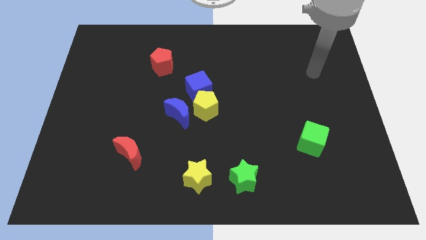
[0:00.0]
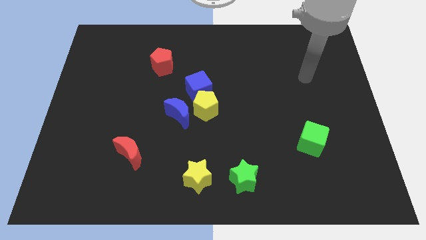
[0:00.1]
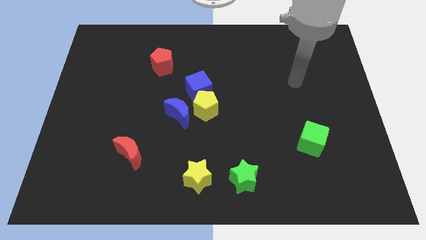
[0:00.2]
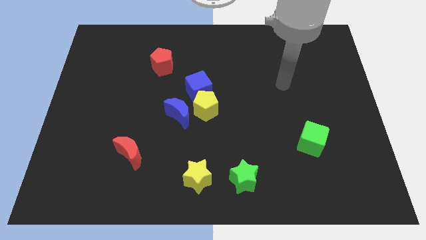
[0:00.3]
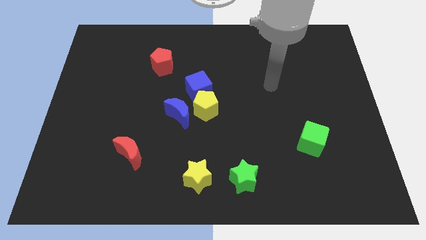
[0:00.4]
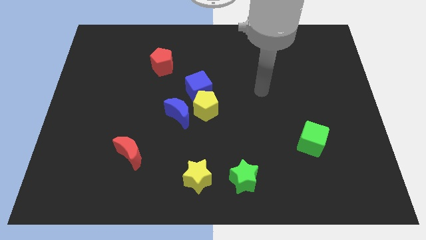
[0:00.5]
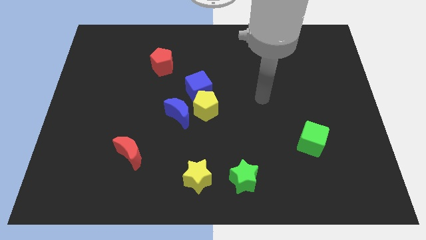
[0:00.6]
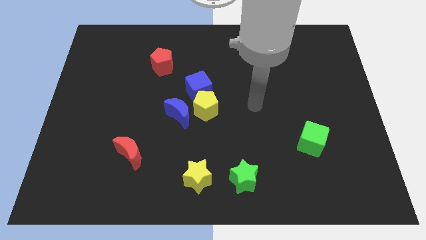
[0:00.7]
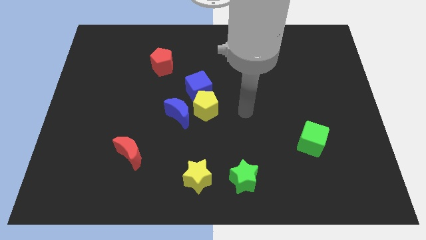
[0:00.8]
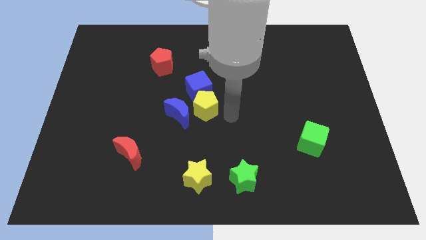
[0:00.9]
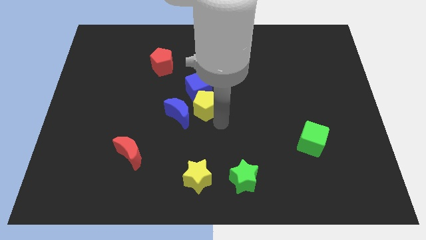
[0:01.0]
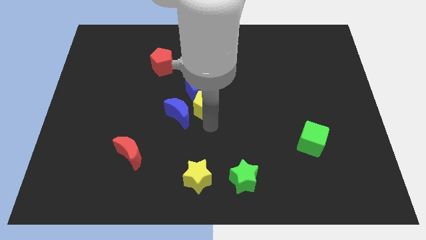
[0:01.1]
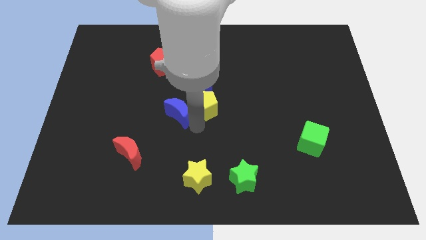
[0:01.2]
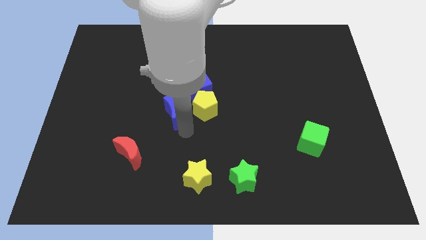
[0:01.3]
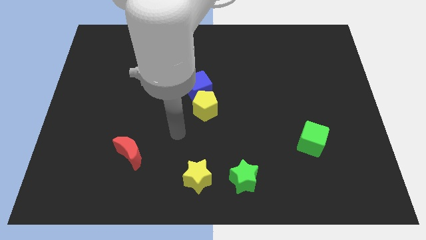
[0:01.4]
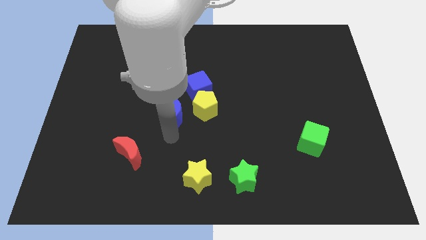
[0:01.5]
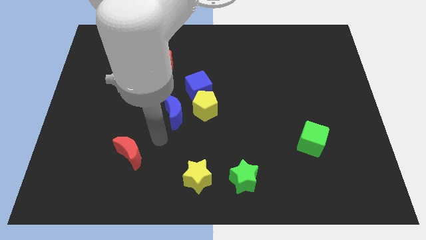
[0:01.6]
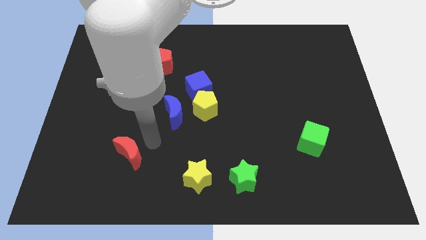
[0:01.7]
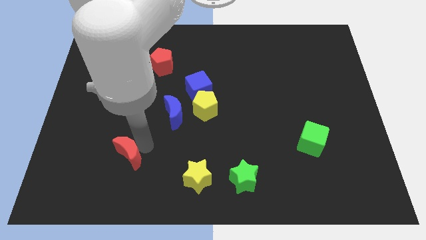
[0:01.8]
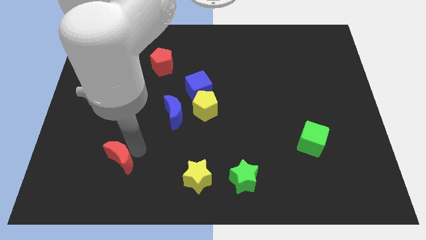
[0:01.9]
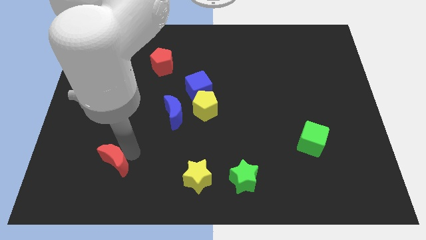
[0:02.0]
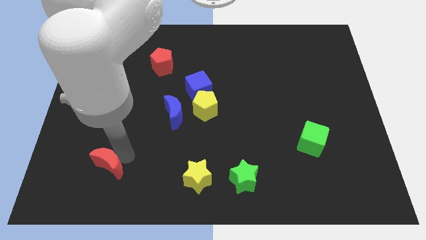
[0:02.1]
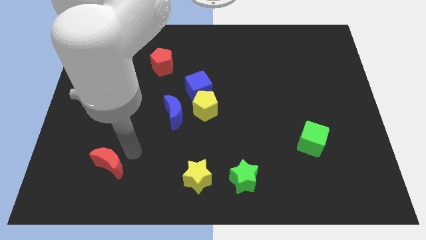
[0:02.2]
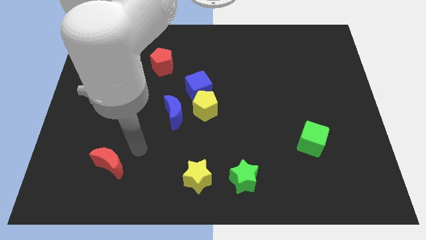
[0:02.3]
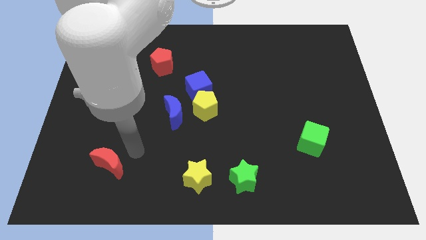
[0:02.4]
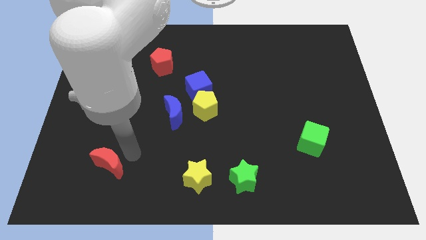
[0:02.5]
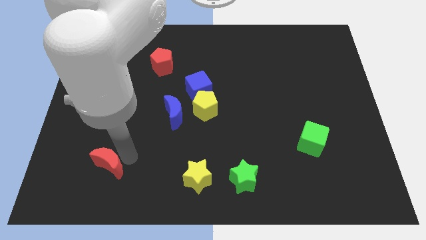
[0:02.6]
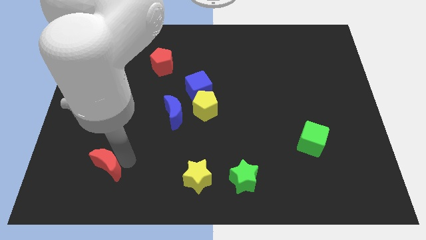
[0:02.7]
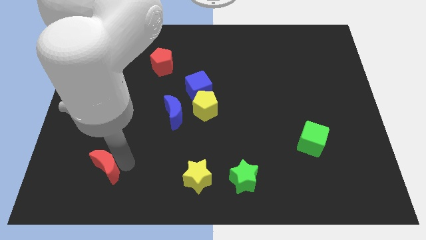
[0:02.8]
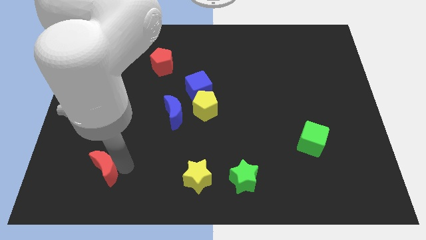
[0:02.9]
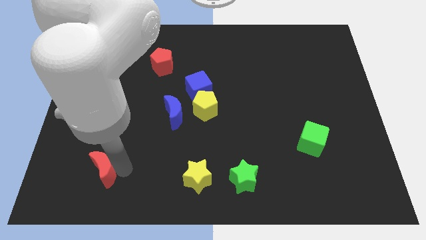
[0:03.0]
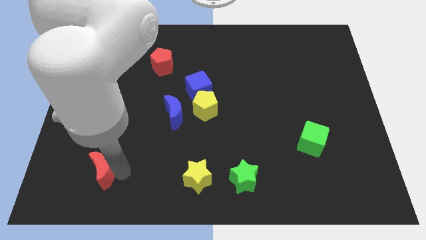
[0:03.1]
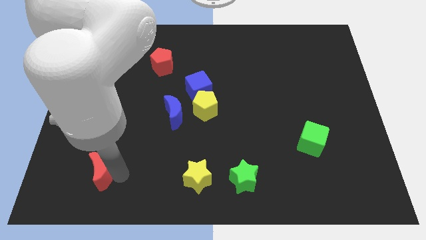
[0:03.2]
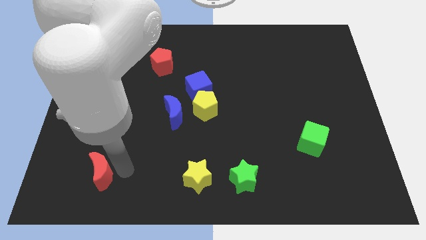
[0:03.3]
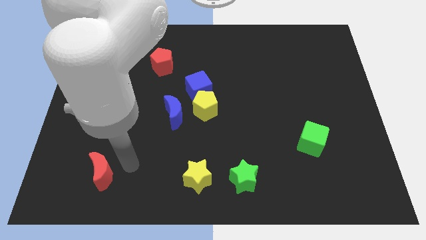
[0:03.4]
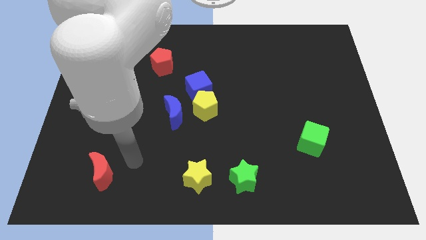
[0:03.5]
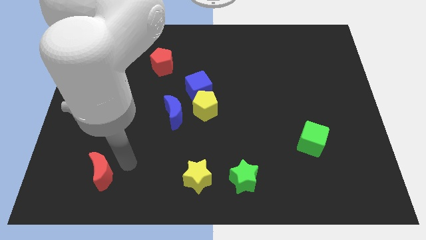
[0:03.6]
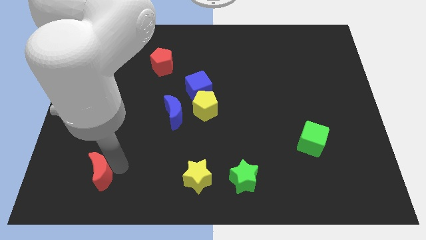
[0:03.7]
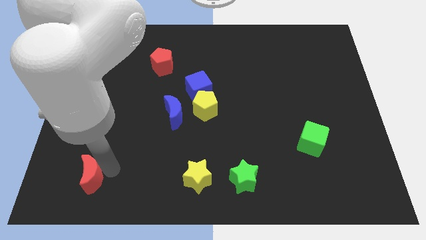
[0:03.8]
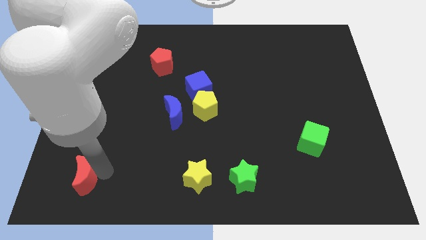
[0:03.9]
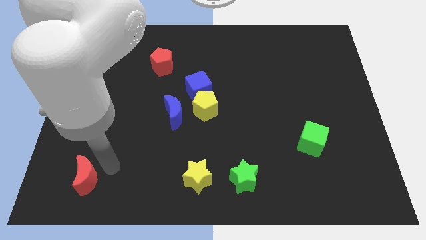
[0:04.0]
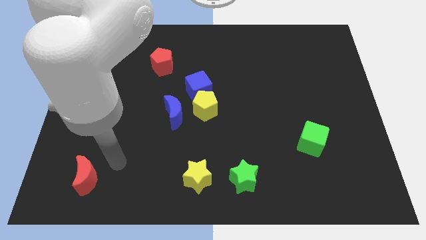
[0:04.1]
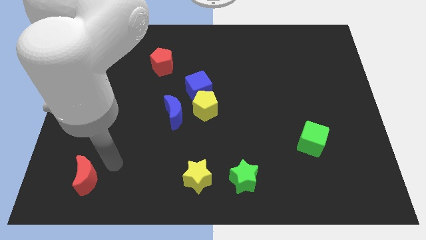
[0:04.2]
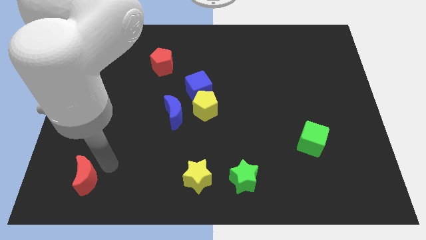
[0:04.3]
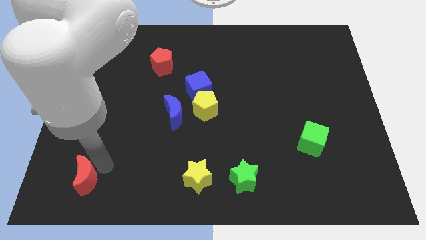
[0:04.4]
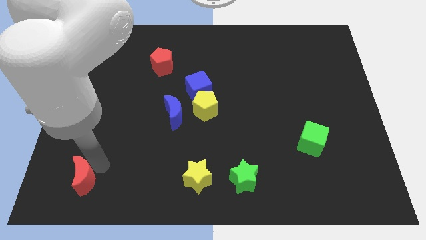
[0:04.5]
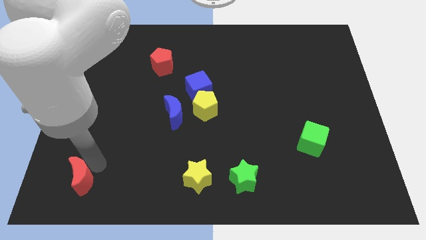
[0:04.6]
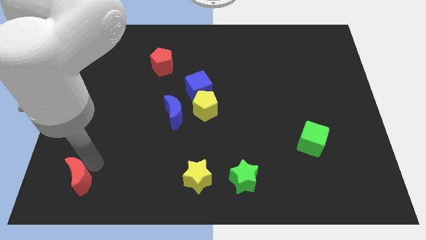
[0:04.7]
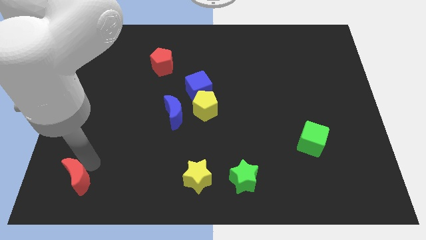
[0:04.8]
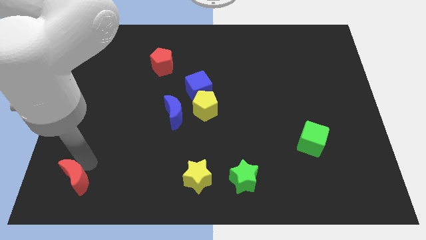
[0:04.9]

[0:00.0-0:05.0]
slide the red moon to the bottom left

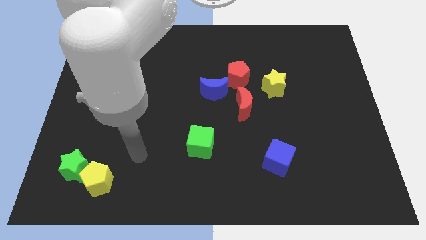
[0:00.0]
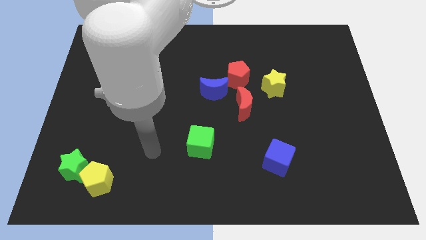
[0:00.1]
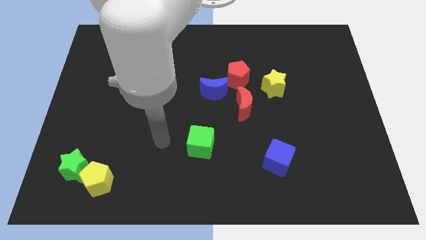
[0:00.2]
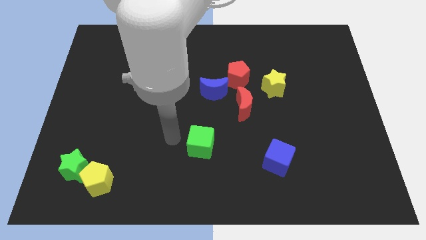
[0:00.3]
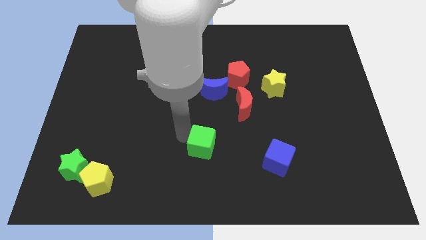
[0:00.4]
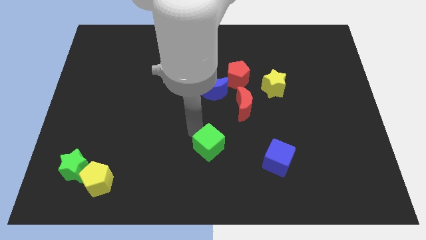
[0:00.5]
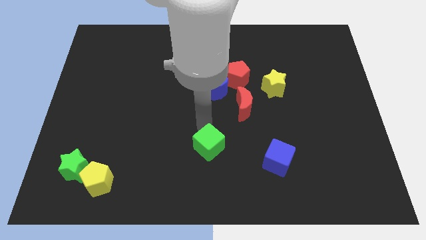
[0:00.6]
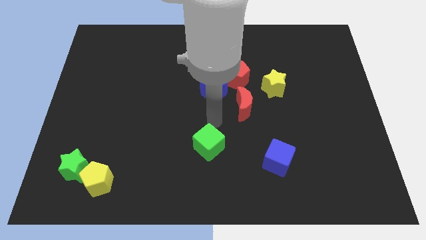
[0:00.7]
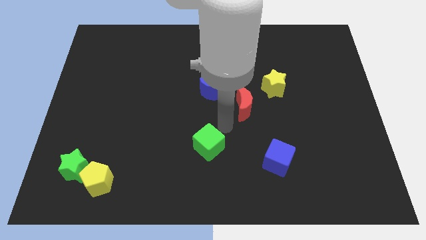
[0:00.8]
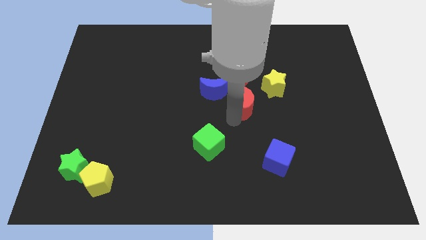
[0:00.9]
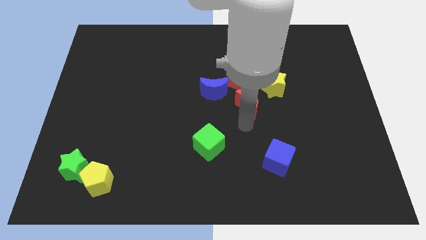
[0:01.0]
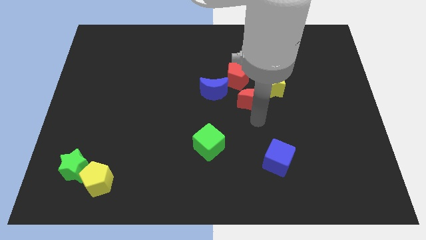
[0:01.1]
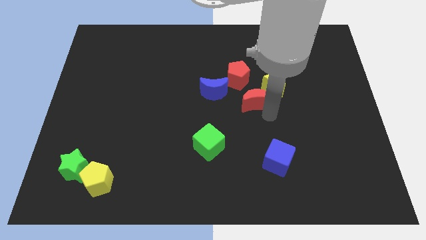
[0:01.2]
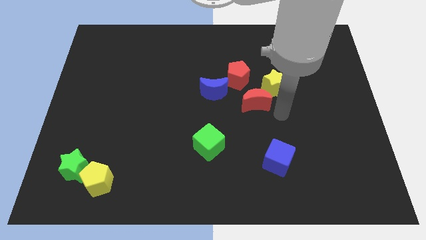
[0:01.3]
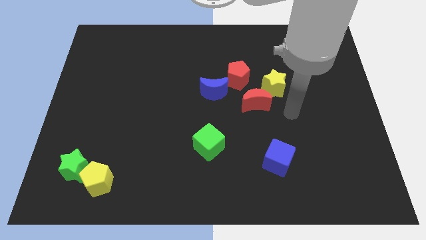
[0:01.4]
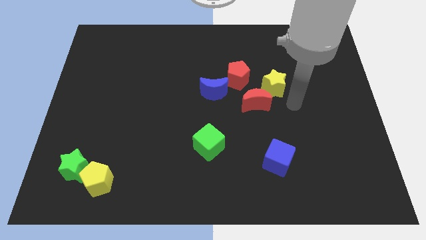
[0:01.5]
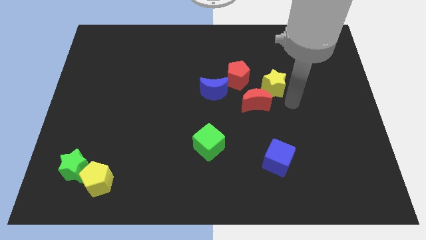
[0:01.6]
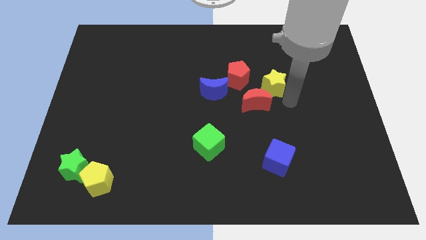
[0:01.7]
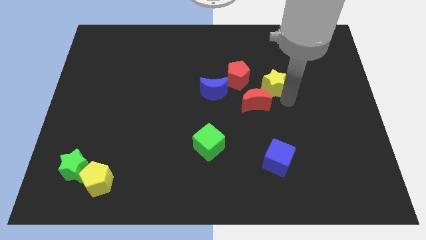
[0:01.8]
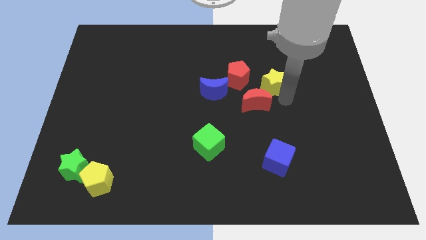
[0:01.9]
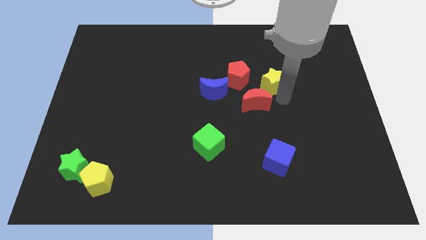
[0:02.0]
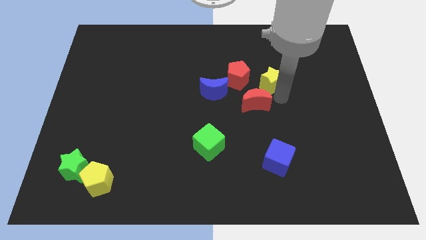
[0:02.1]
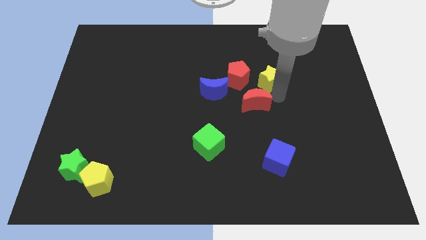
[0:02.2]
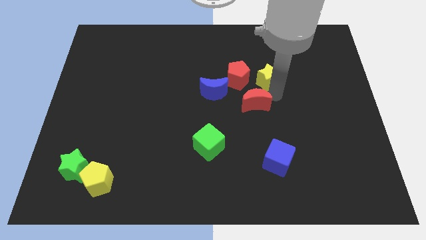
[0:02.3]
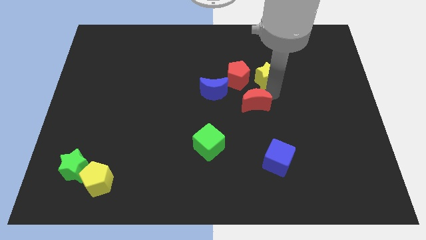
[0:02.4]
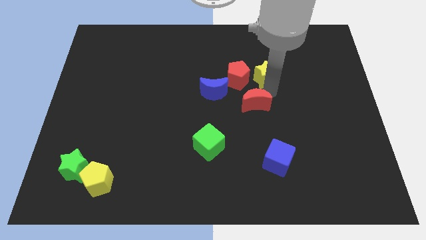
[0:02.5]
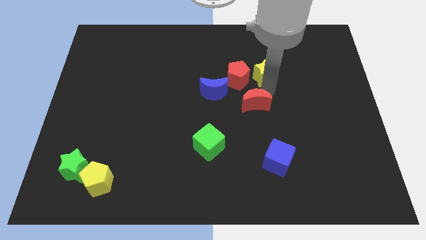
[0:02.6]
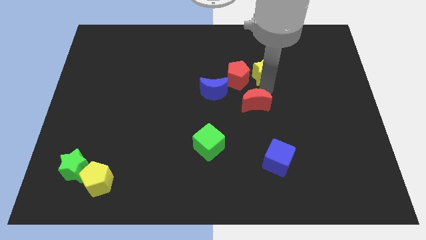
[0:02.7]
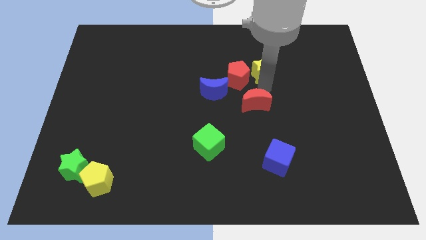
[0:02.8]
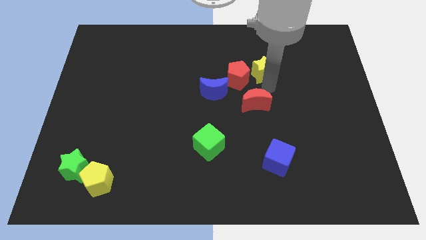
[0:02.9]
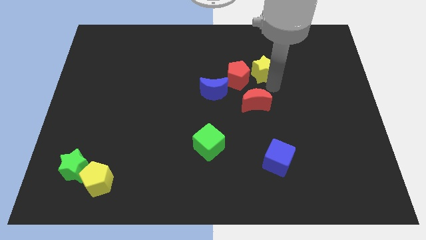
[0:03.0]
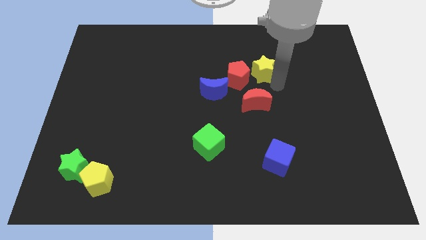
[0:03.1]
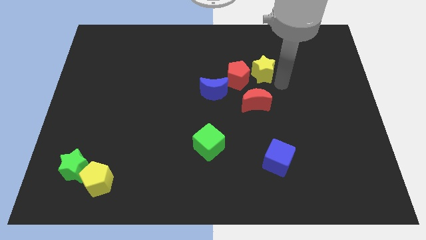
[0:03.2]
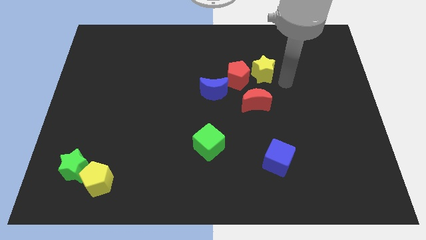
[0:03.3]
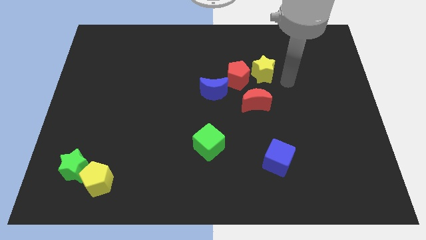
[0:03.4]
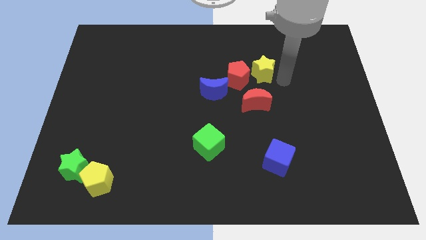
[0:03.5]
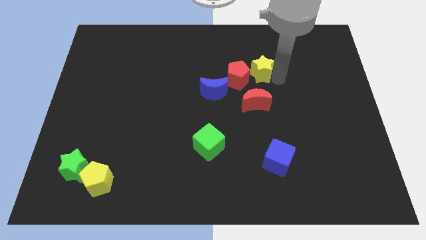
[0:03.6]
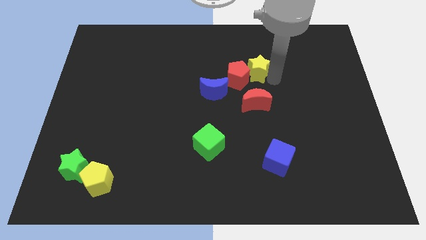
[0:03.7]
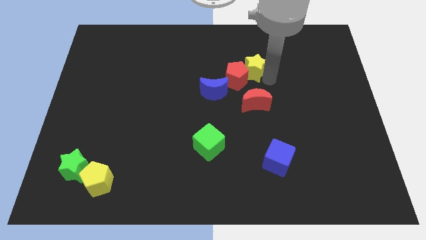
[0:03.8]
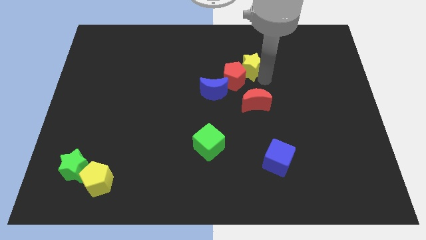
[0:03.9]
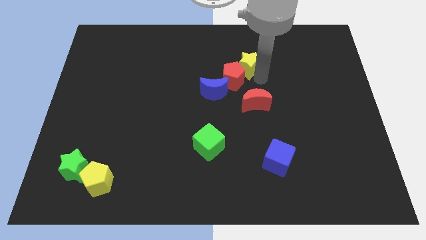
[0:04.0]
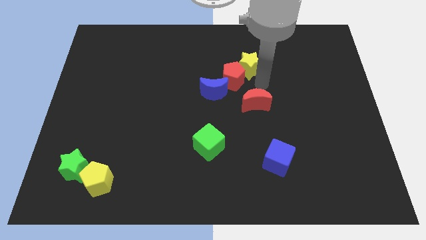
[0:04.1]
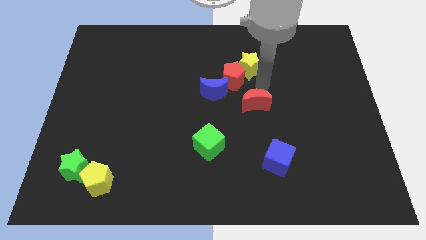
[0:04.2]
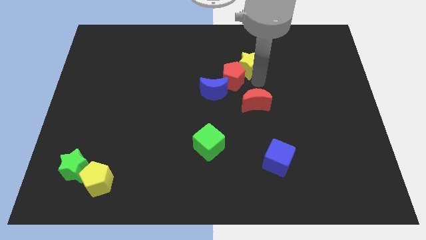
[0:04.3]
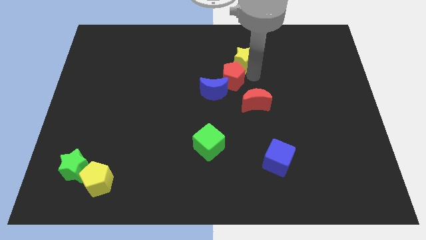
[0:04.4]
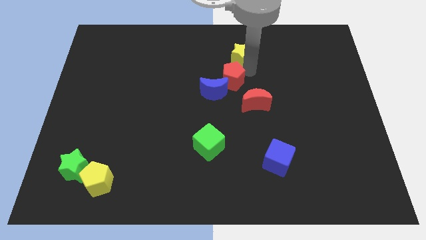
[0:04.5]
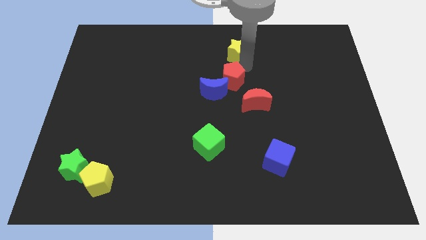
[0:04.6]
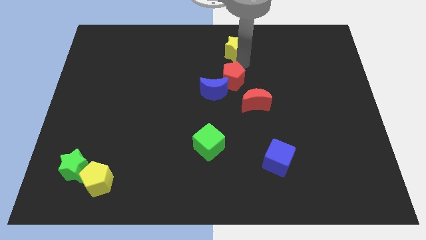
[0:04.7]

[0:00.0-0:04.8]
push the yellow star to the top
